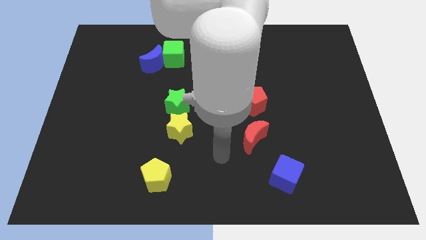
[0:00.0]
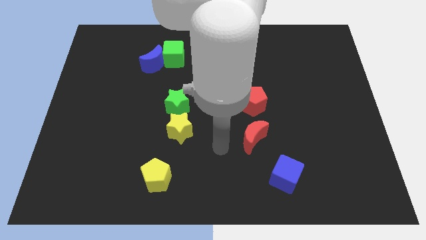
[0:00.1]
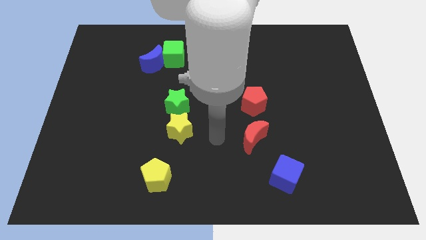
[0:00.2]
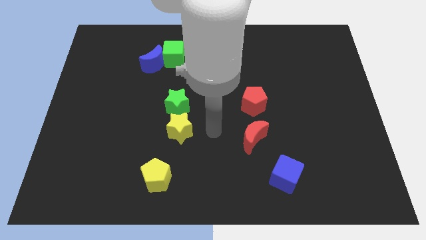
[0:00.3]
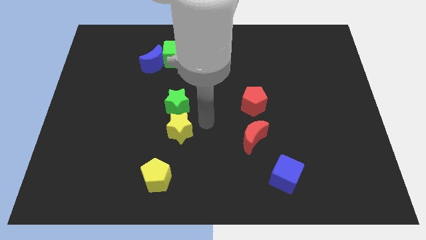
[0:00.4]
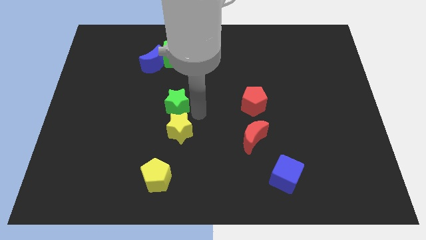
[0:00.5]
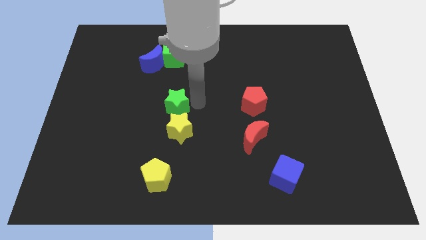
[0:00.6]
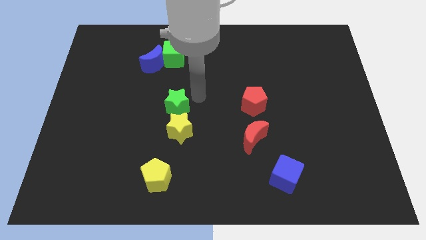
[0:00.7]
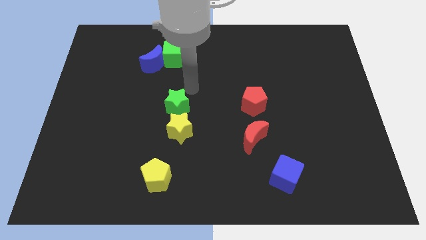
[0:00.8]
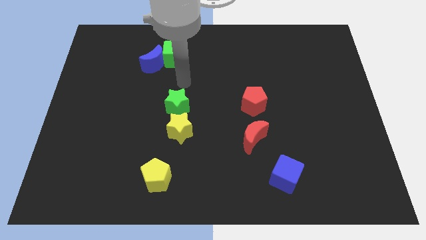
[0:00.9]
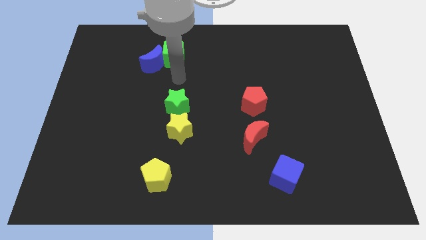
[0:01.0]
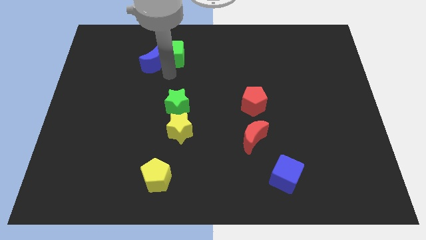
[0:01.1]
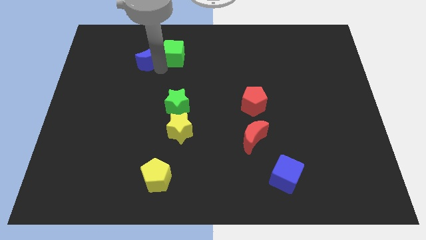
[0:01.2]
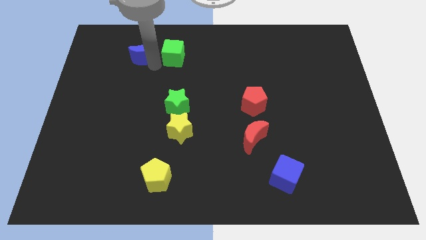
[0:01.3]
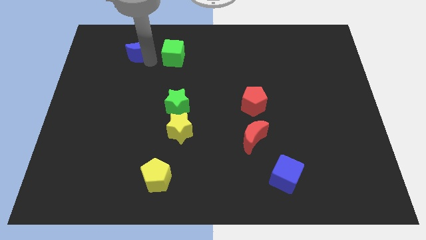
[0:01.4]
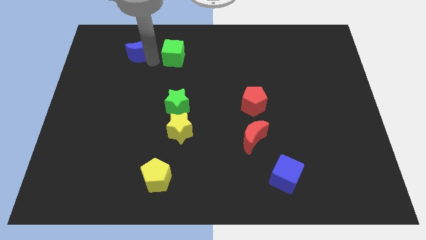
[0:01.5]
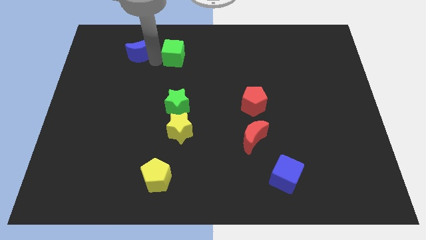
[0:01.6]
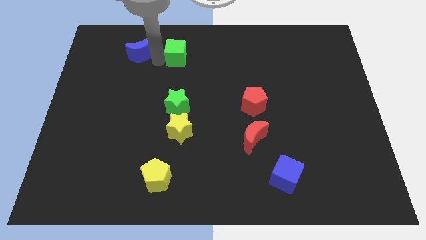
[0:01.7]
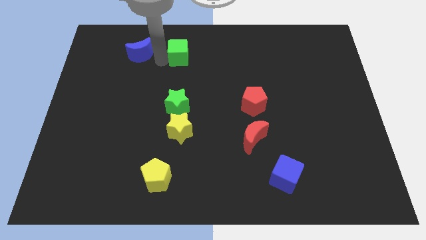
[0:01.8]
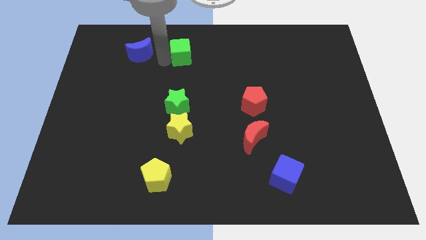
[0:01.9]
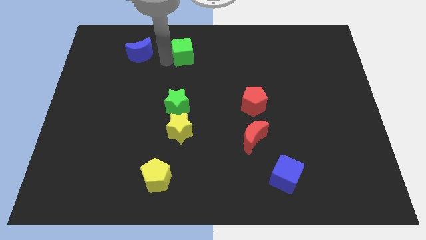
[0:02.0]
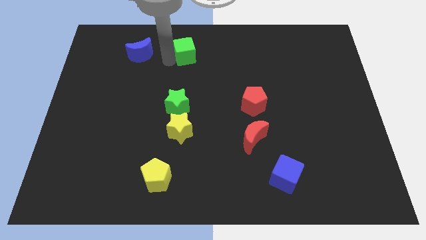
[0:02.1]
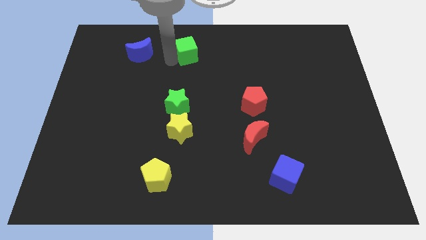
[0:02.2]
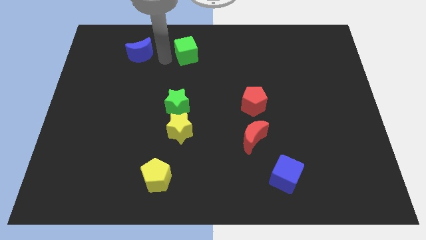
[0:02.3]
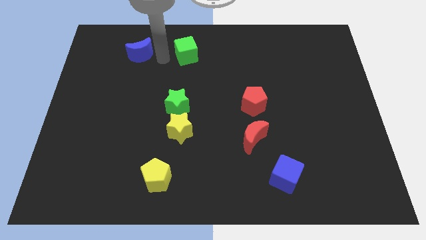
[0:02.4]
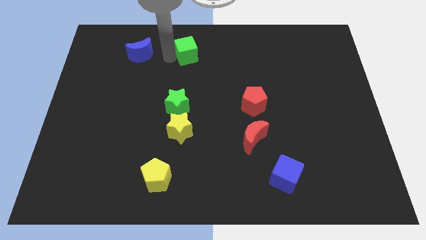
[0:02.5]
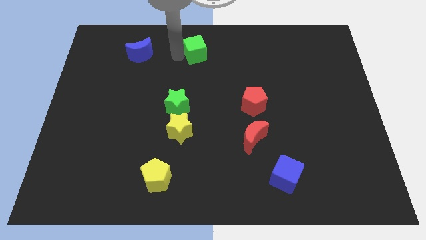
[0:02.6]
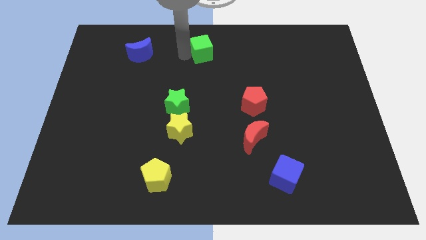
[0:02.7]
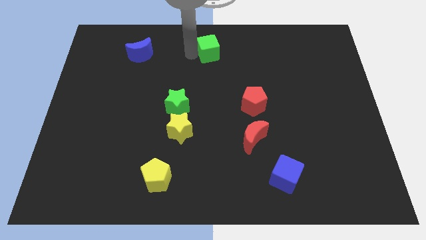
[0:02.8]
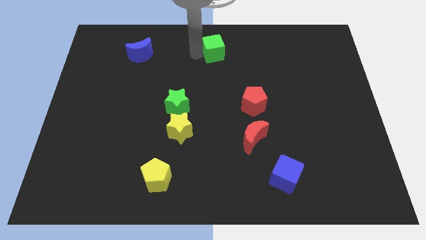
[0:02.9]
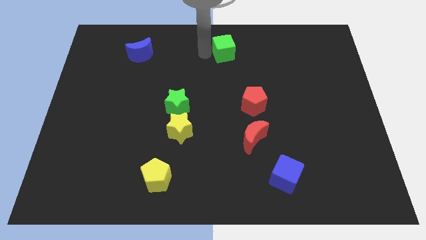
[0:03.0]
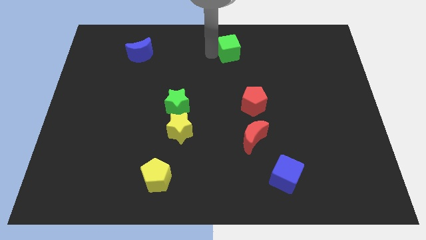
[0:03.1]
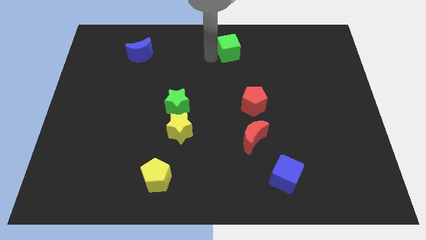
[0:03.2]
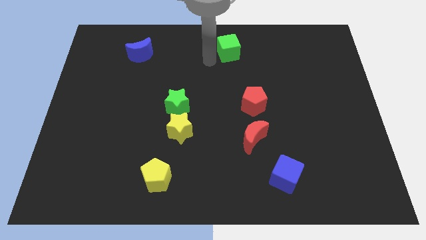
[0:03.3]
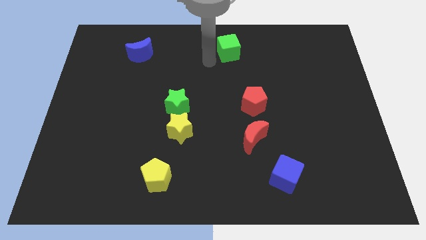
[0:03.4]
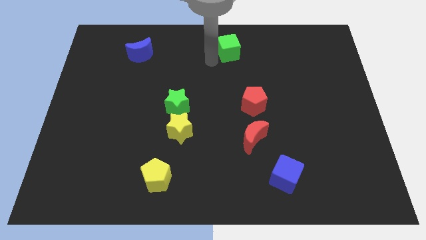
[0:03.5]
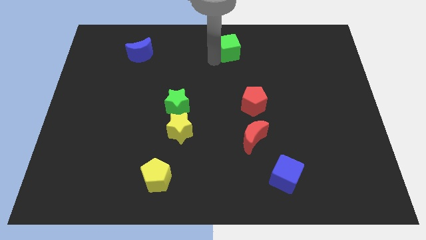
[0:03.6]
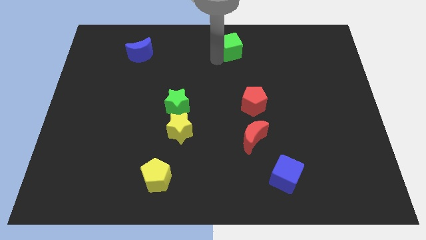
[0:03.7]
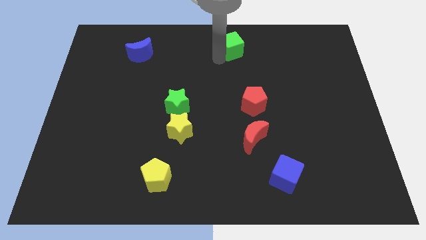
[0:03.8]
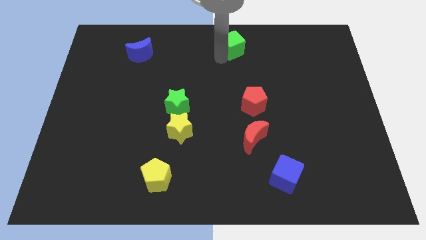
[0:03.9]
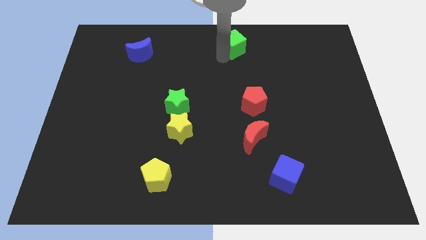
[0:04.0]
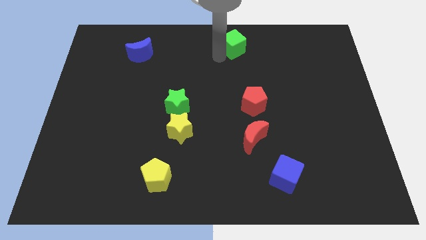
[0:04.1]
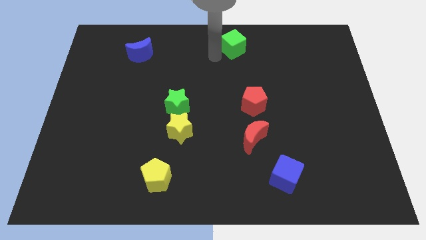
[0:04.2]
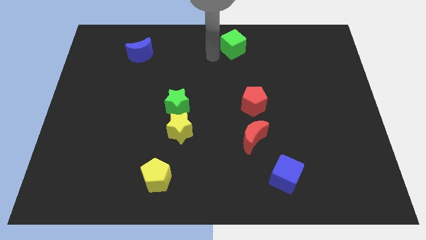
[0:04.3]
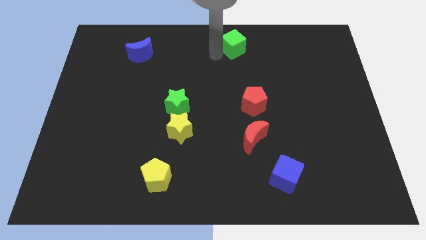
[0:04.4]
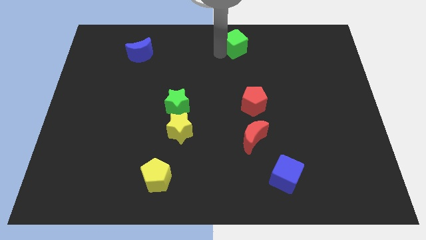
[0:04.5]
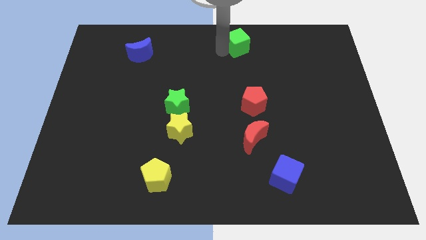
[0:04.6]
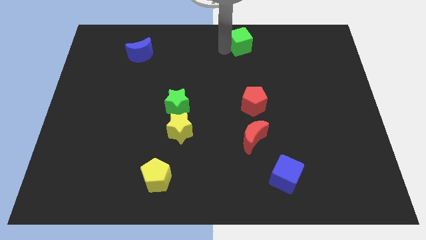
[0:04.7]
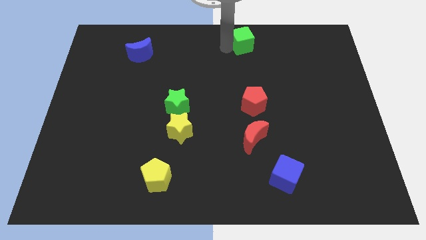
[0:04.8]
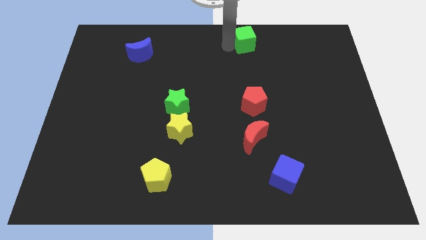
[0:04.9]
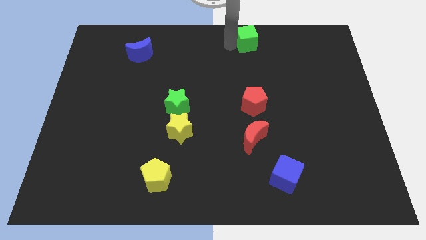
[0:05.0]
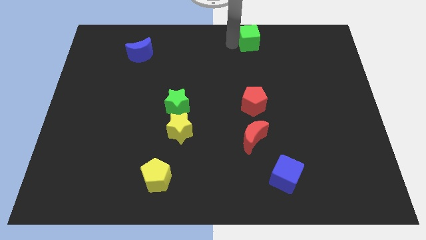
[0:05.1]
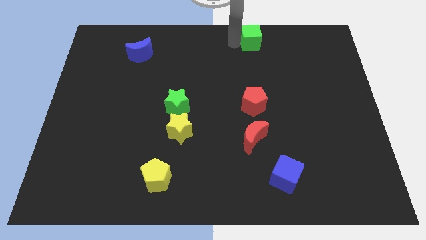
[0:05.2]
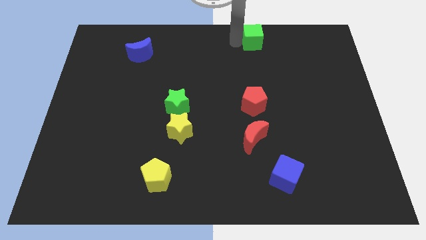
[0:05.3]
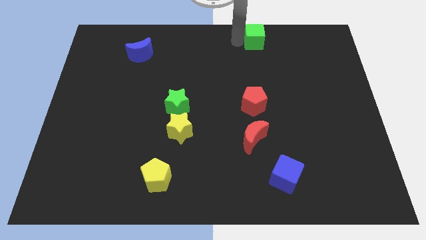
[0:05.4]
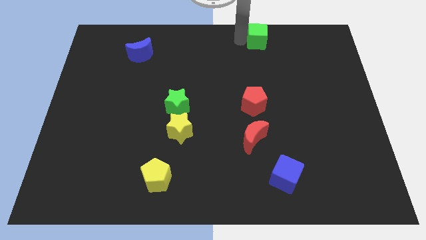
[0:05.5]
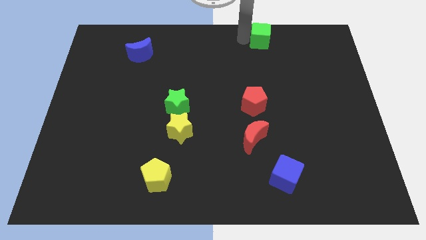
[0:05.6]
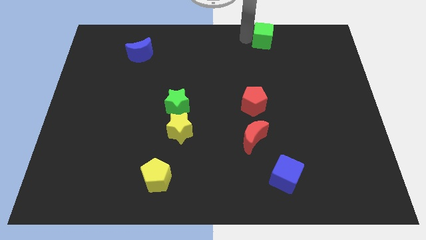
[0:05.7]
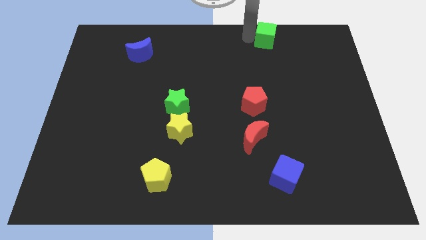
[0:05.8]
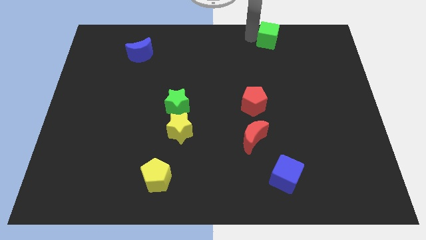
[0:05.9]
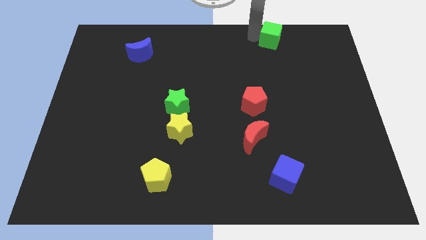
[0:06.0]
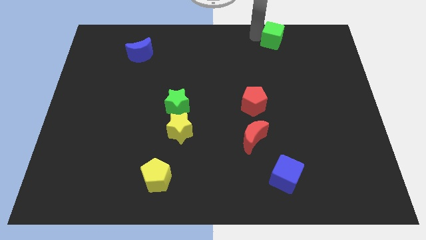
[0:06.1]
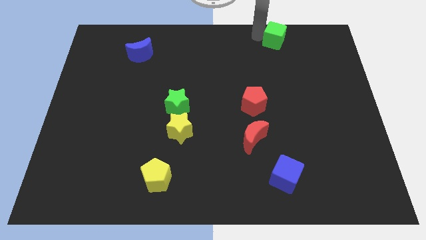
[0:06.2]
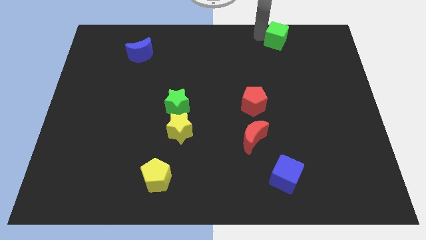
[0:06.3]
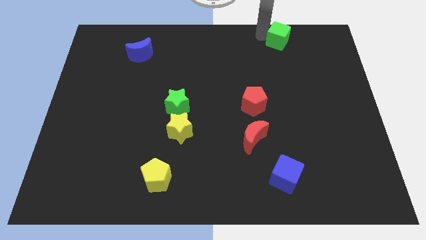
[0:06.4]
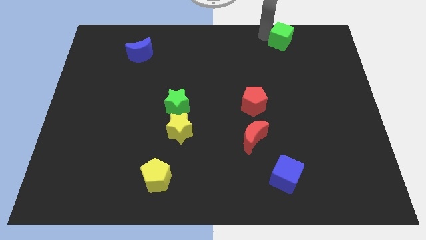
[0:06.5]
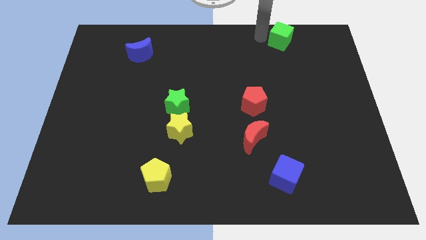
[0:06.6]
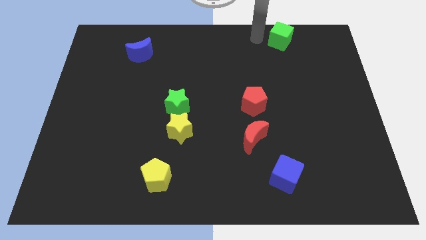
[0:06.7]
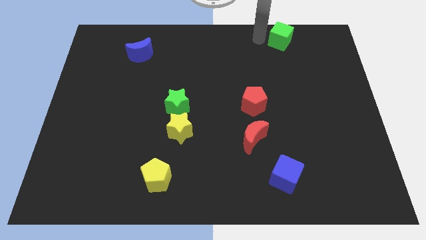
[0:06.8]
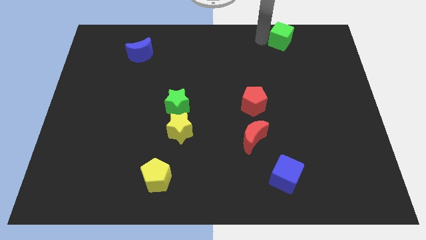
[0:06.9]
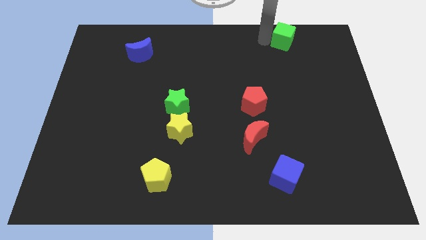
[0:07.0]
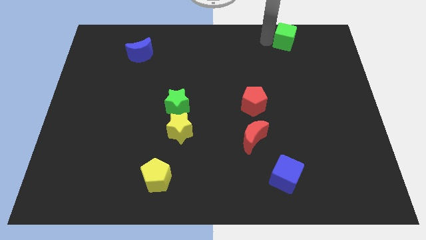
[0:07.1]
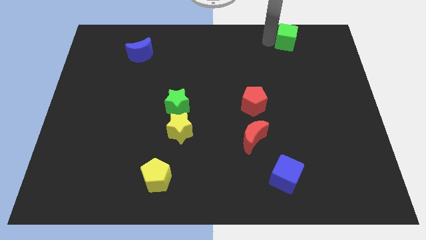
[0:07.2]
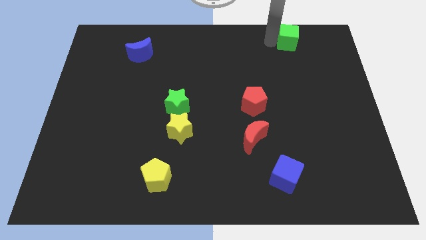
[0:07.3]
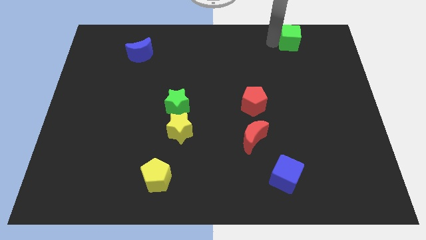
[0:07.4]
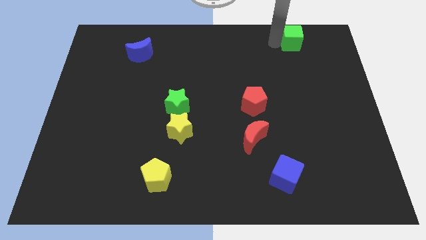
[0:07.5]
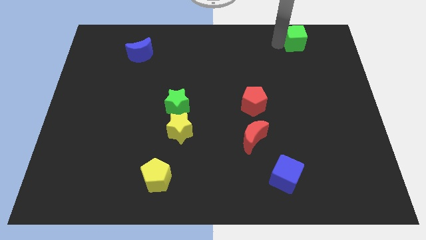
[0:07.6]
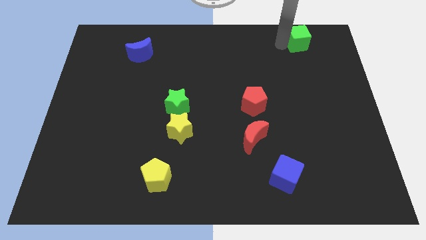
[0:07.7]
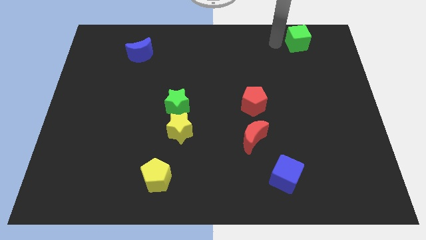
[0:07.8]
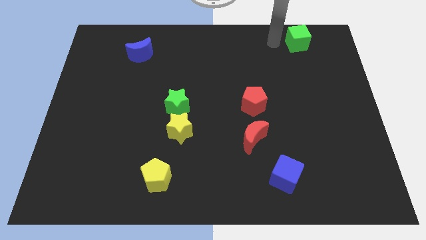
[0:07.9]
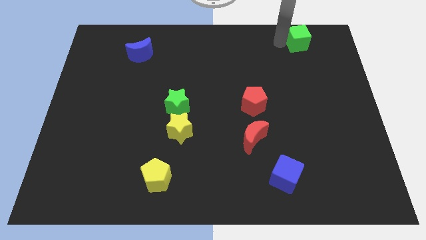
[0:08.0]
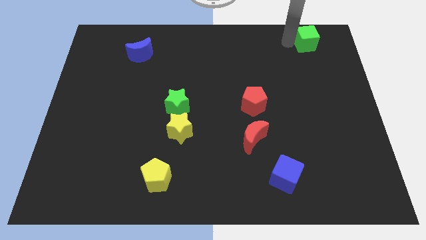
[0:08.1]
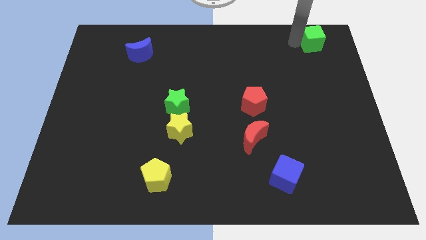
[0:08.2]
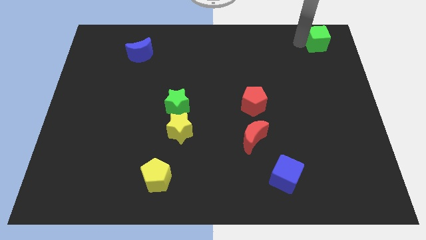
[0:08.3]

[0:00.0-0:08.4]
move the green cube to the top right corner
